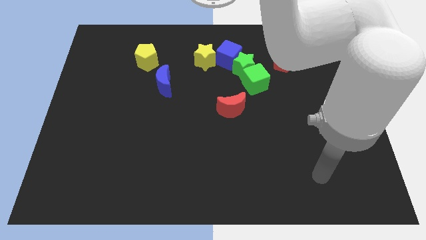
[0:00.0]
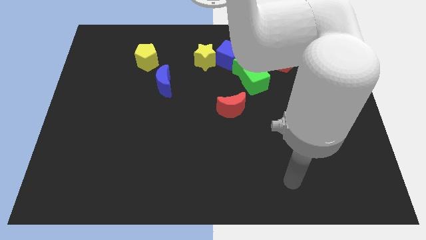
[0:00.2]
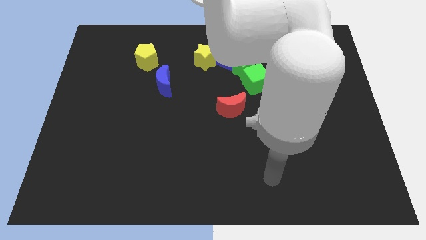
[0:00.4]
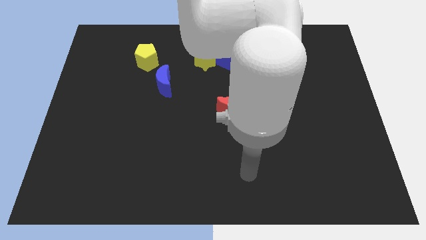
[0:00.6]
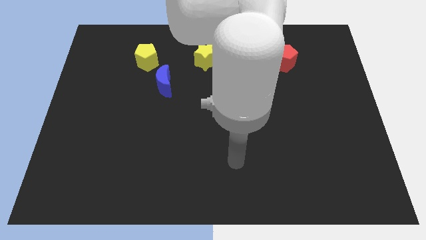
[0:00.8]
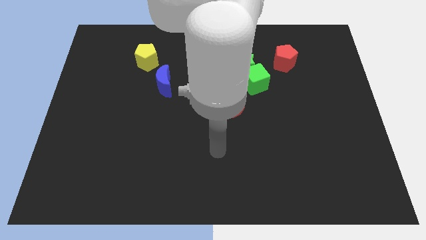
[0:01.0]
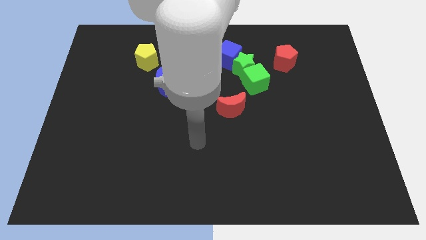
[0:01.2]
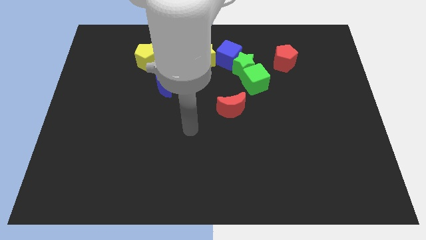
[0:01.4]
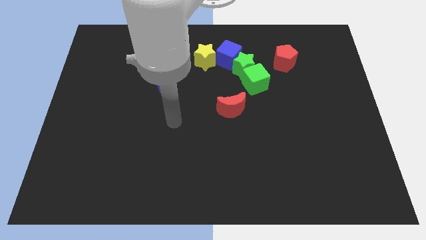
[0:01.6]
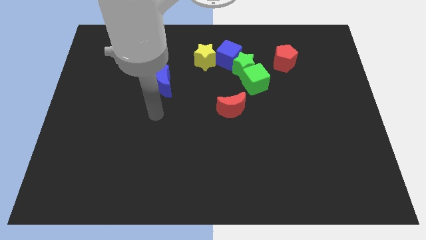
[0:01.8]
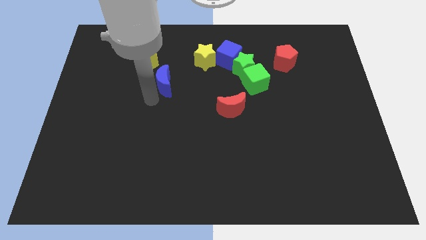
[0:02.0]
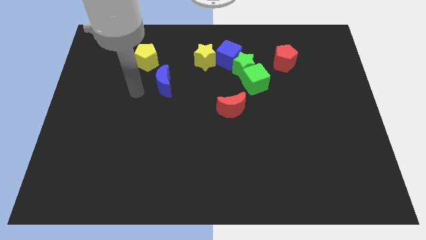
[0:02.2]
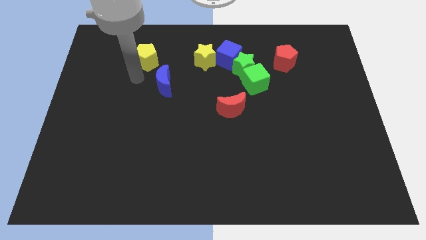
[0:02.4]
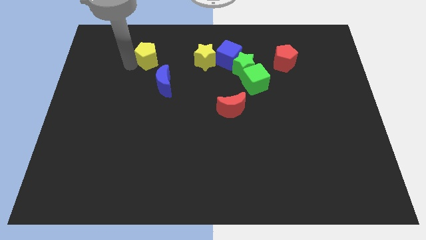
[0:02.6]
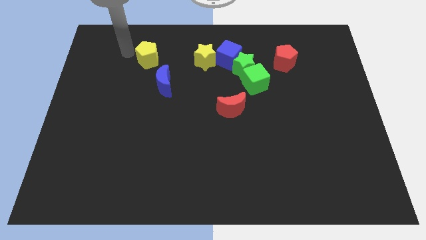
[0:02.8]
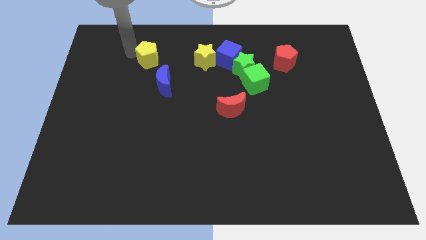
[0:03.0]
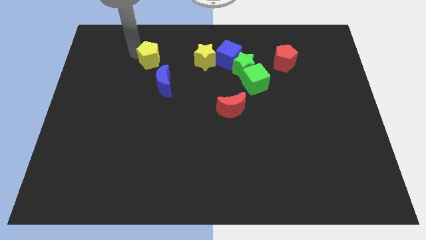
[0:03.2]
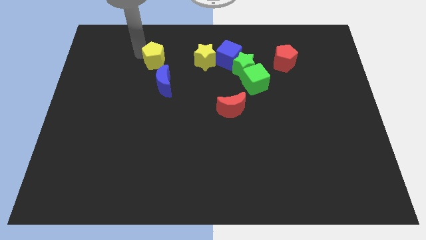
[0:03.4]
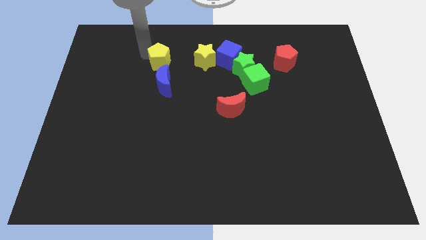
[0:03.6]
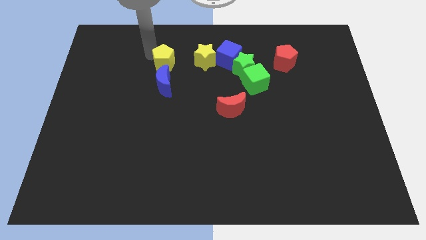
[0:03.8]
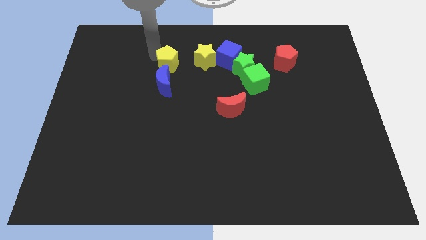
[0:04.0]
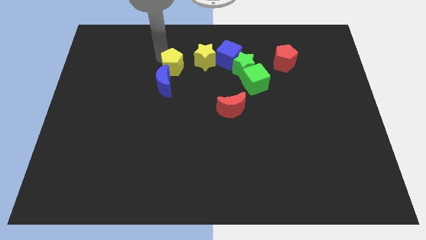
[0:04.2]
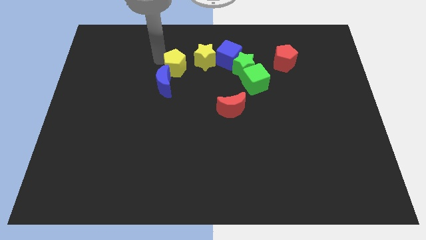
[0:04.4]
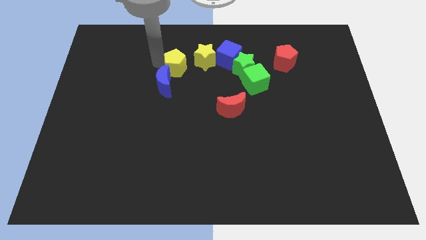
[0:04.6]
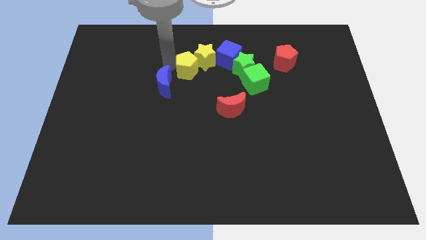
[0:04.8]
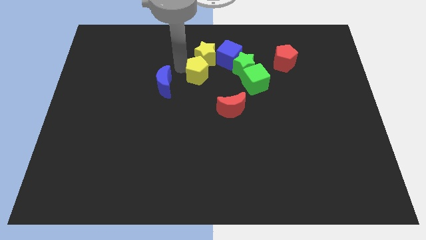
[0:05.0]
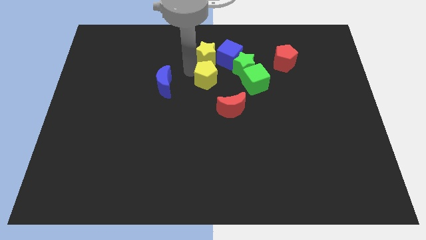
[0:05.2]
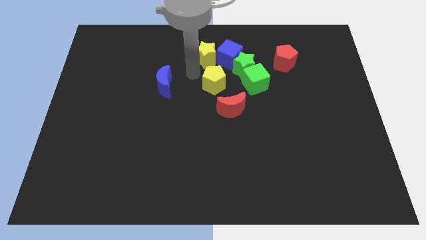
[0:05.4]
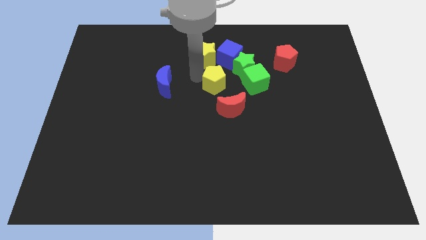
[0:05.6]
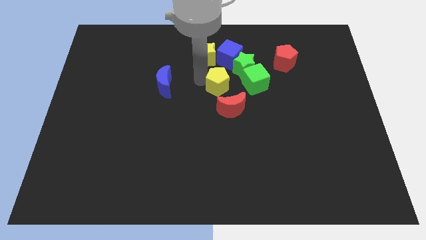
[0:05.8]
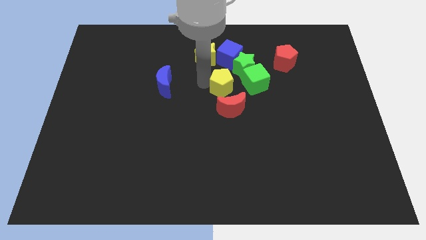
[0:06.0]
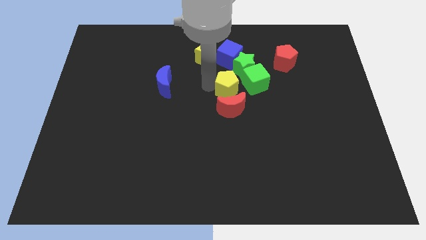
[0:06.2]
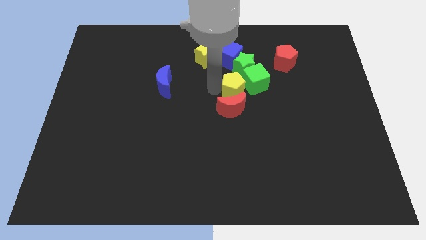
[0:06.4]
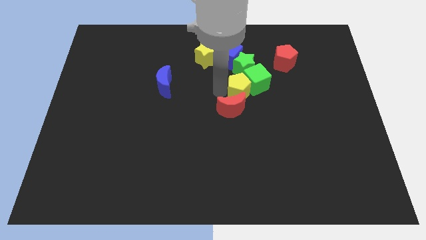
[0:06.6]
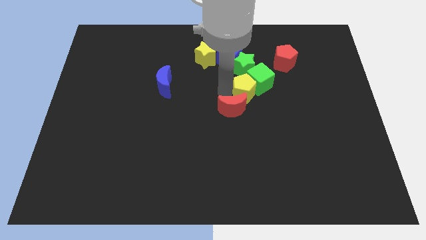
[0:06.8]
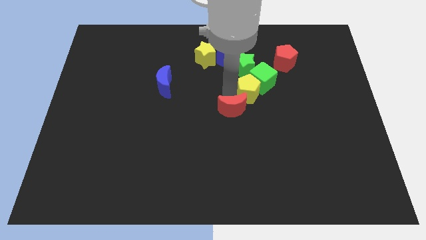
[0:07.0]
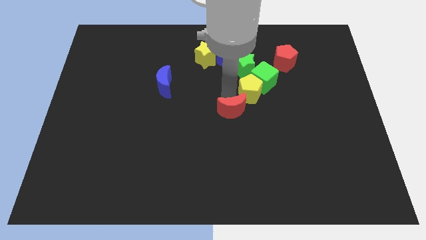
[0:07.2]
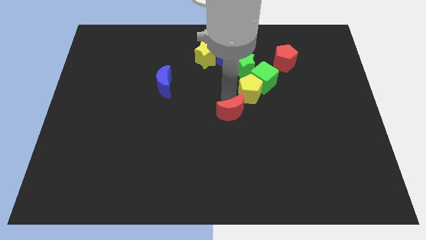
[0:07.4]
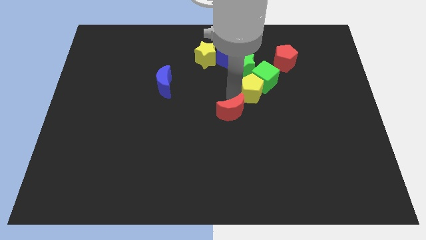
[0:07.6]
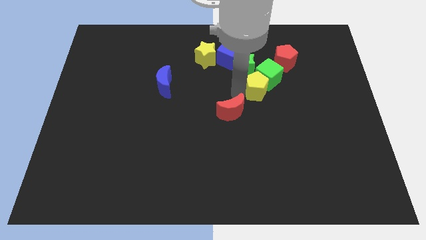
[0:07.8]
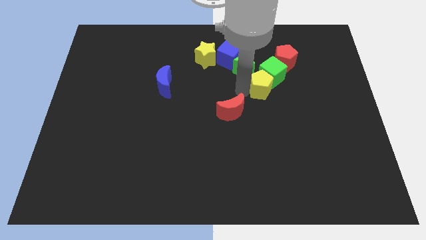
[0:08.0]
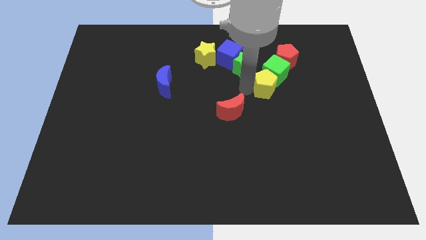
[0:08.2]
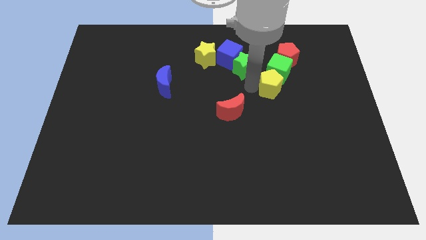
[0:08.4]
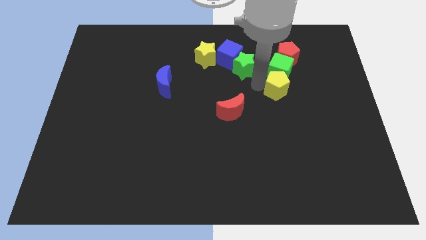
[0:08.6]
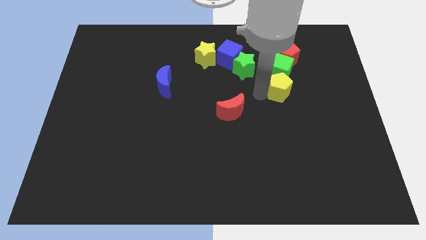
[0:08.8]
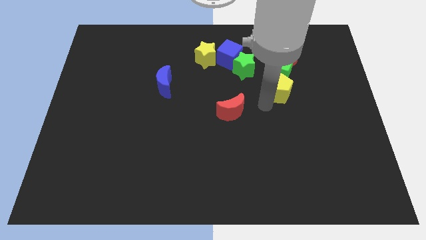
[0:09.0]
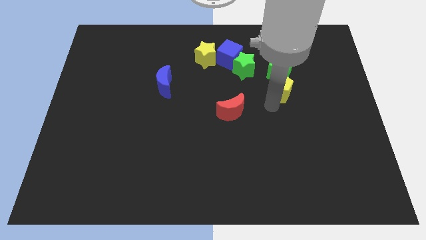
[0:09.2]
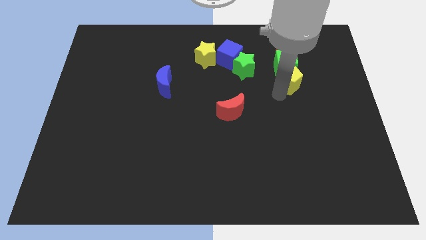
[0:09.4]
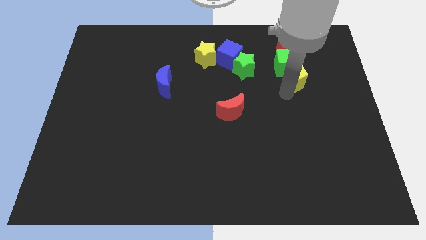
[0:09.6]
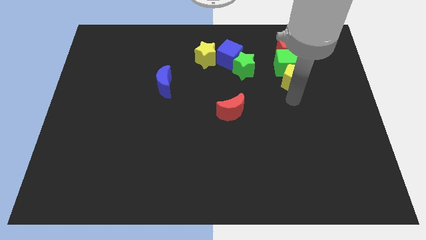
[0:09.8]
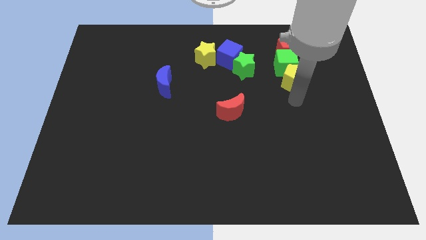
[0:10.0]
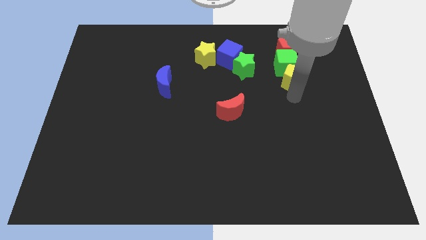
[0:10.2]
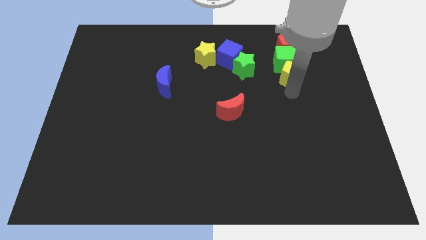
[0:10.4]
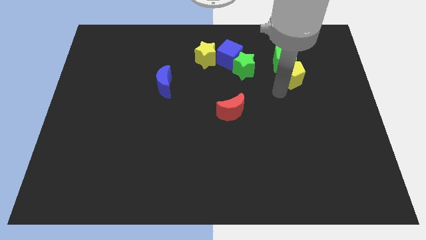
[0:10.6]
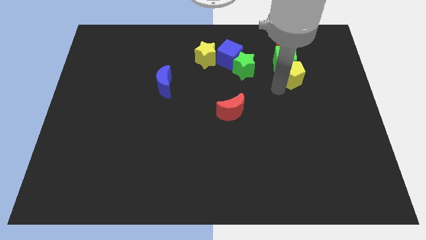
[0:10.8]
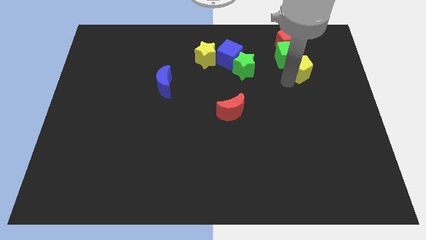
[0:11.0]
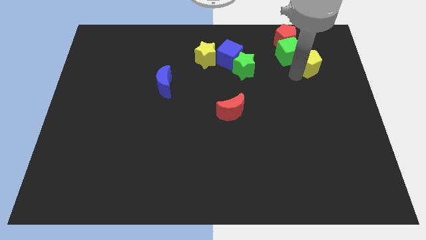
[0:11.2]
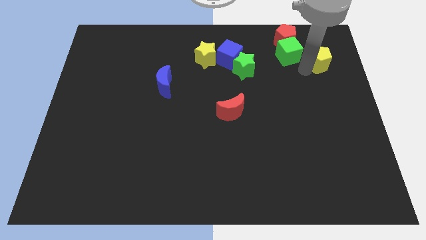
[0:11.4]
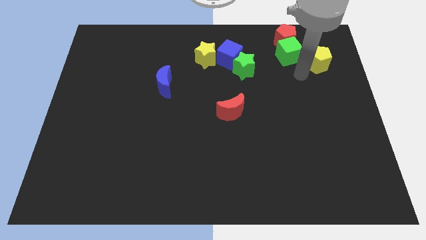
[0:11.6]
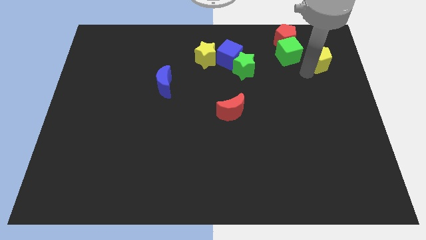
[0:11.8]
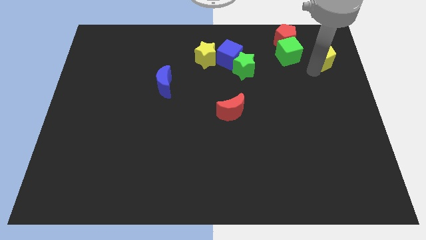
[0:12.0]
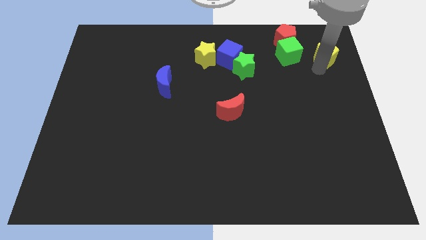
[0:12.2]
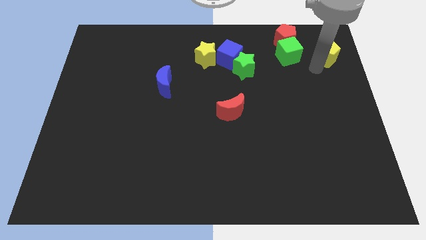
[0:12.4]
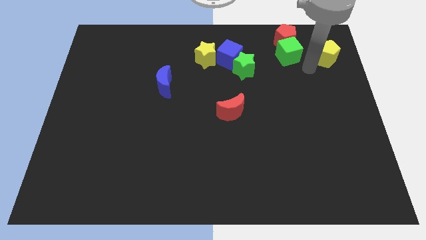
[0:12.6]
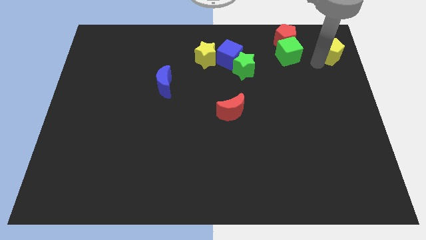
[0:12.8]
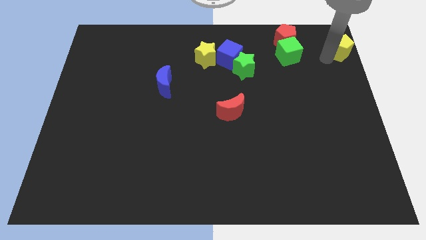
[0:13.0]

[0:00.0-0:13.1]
push the yellow pentagon to the top right
